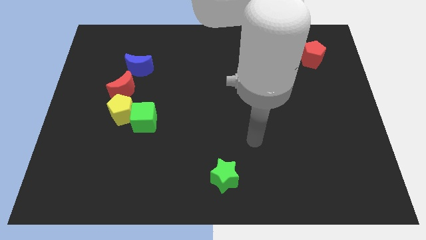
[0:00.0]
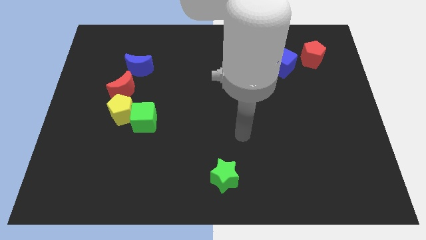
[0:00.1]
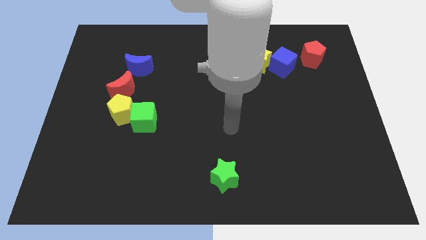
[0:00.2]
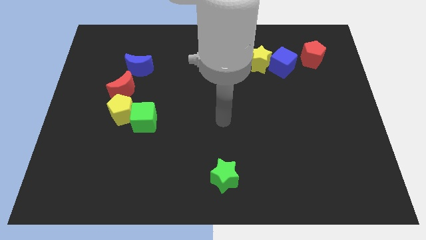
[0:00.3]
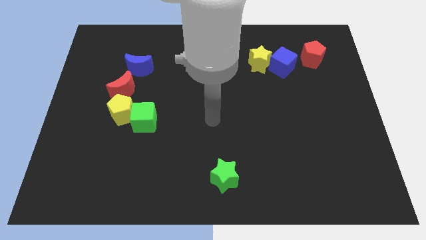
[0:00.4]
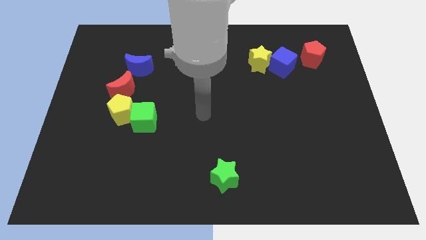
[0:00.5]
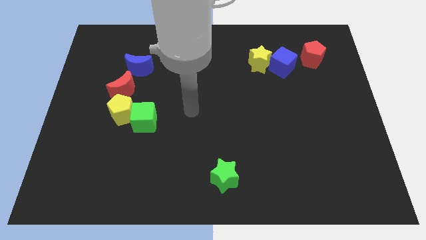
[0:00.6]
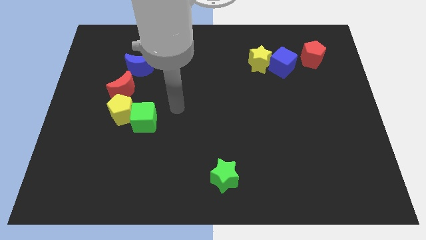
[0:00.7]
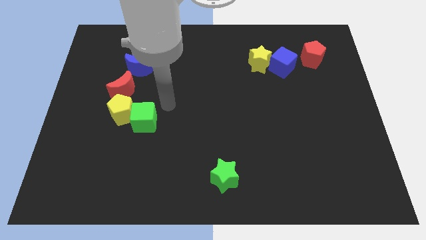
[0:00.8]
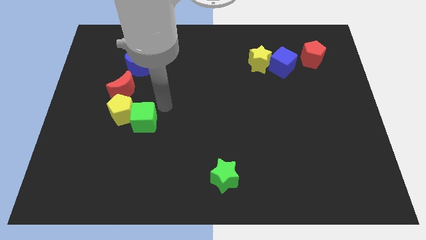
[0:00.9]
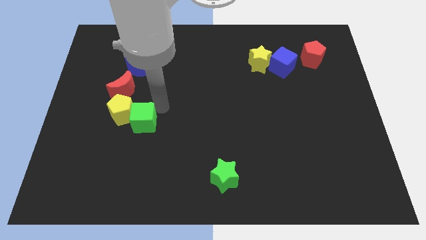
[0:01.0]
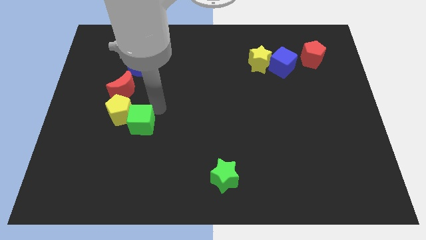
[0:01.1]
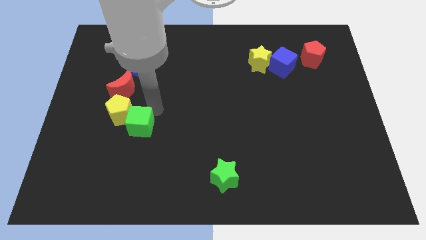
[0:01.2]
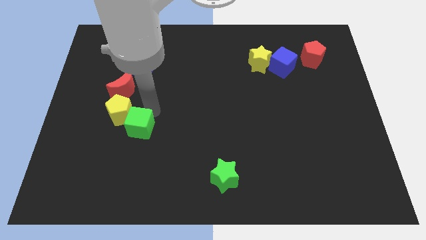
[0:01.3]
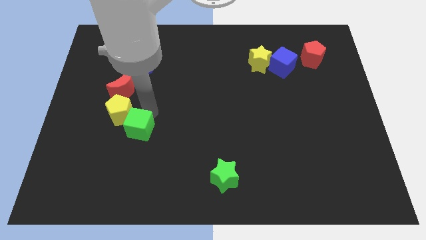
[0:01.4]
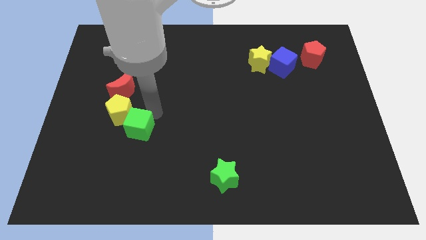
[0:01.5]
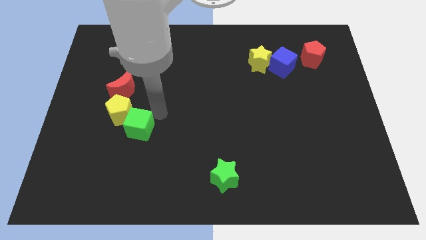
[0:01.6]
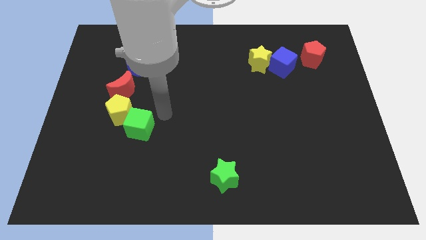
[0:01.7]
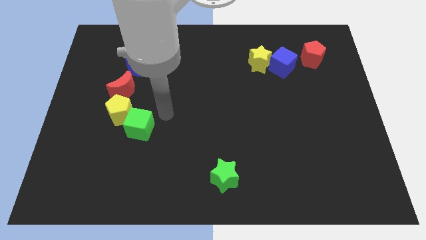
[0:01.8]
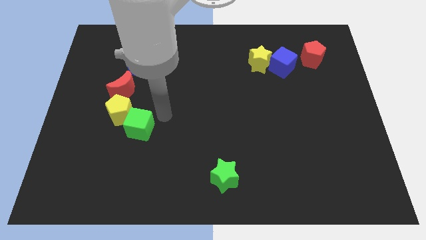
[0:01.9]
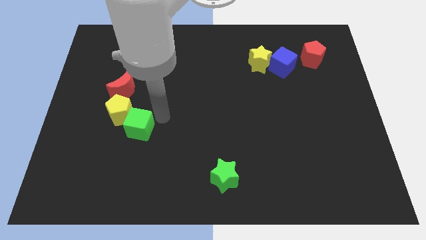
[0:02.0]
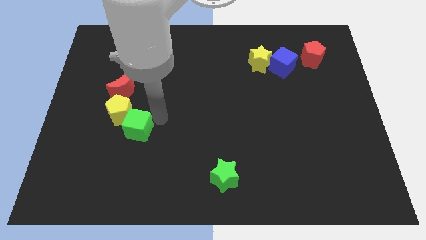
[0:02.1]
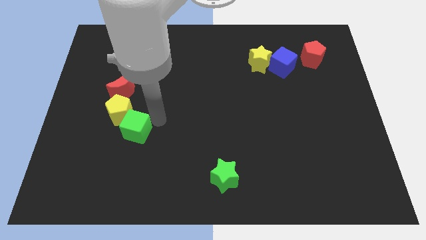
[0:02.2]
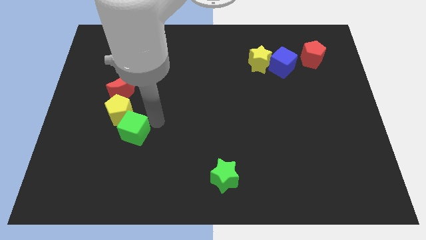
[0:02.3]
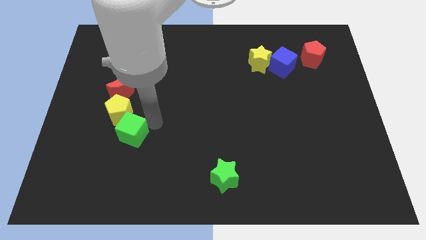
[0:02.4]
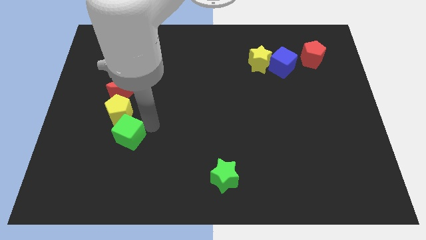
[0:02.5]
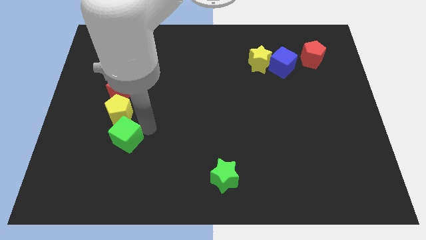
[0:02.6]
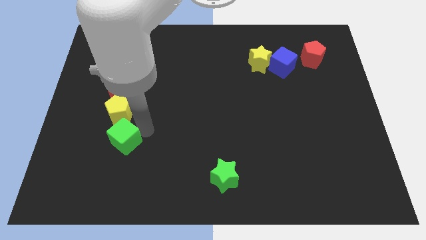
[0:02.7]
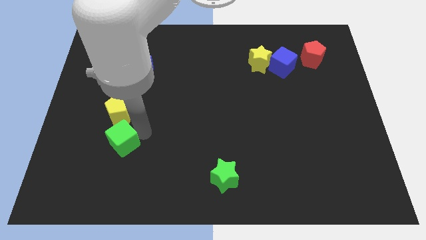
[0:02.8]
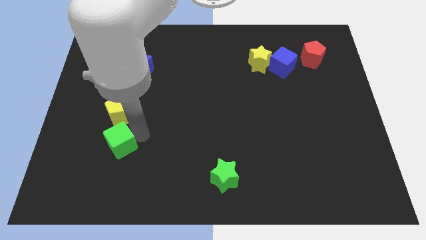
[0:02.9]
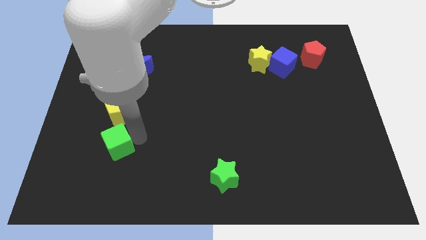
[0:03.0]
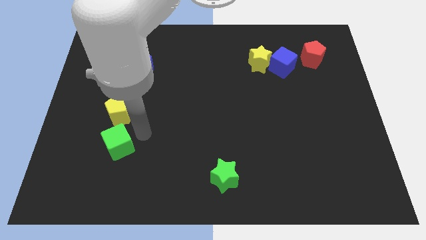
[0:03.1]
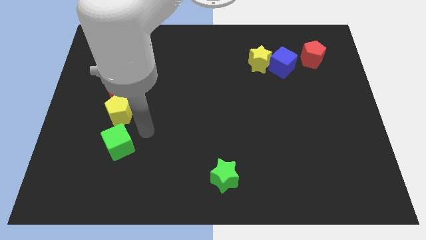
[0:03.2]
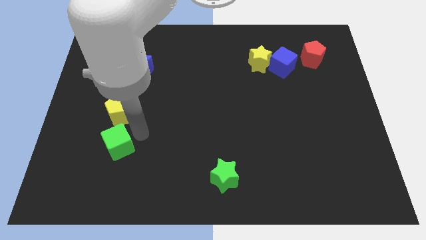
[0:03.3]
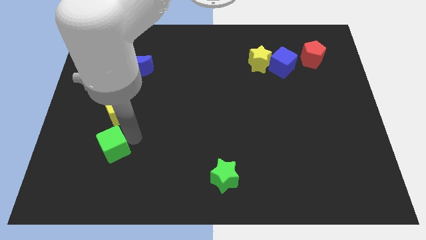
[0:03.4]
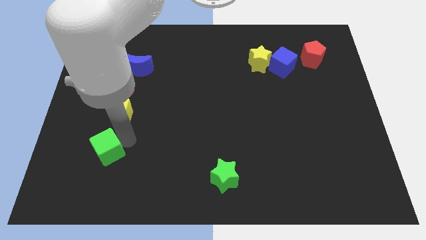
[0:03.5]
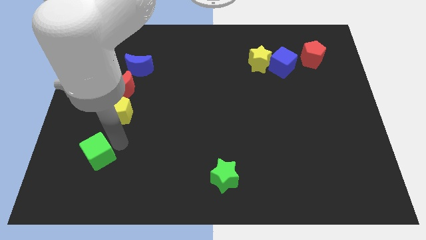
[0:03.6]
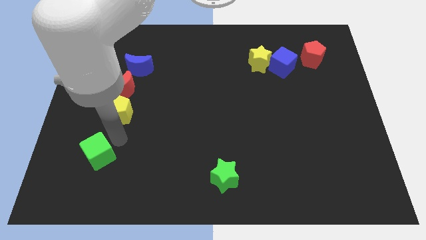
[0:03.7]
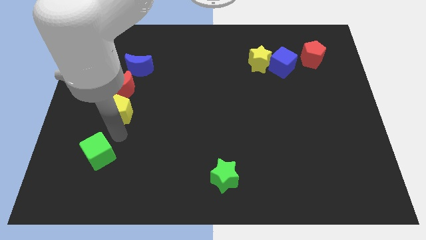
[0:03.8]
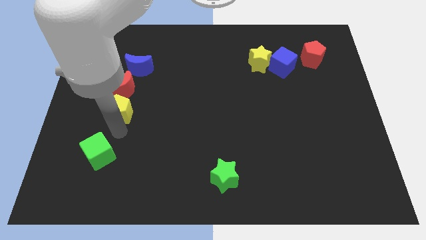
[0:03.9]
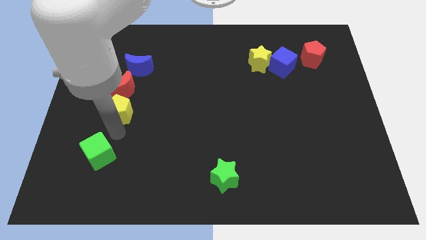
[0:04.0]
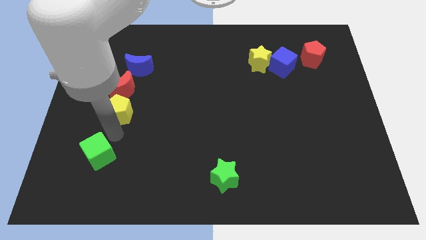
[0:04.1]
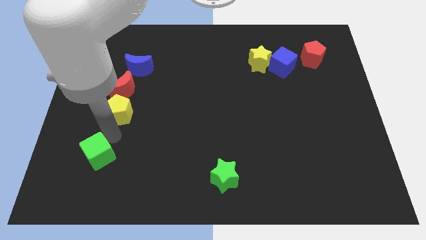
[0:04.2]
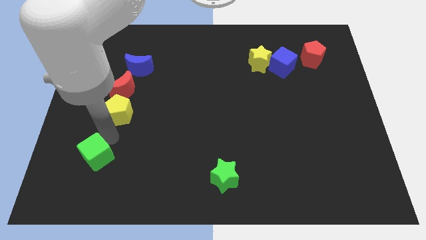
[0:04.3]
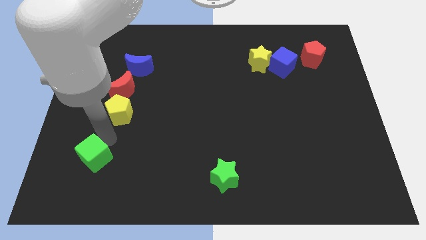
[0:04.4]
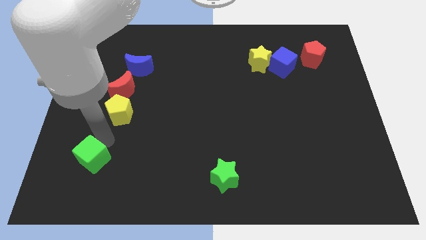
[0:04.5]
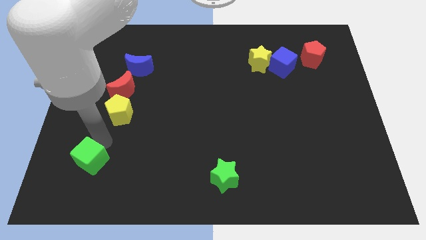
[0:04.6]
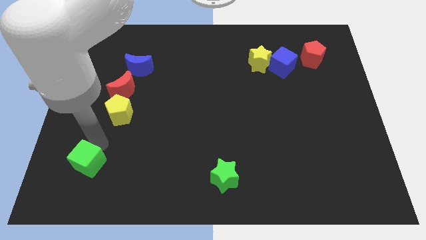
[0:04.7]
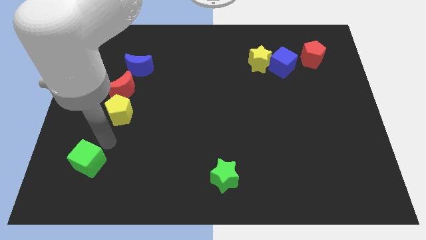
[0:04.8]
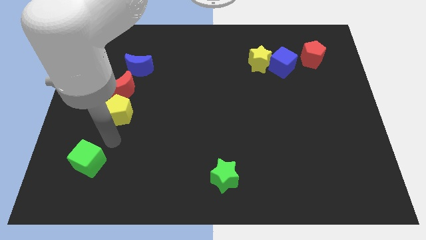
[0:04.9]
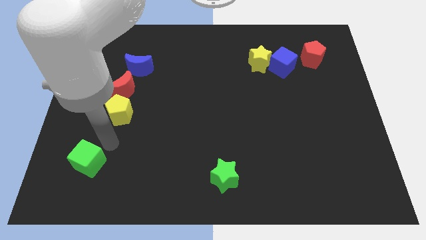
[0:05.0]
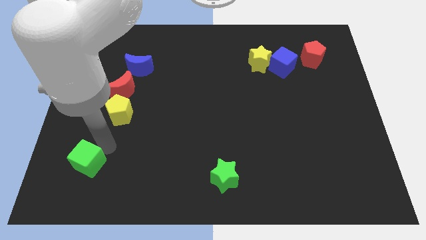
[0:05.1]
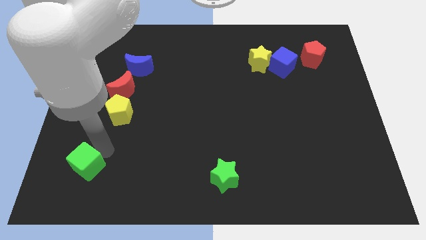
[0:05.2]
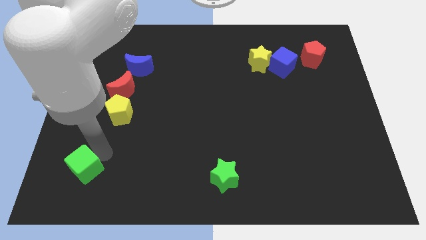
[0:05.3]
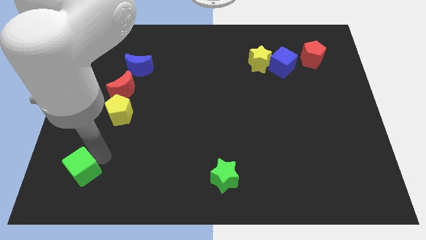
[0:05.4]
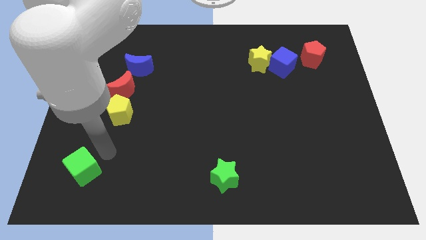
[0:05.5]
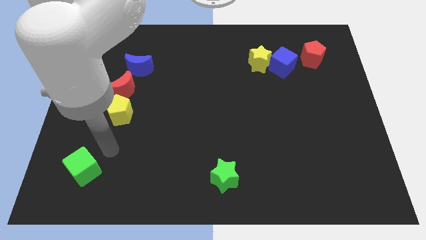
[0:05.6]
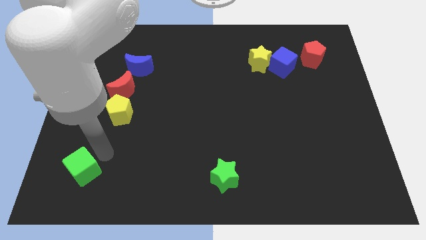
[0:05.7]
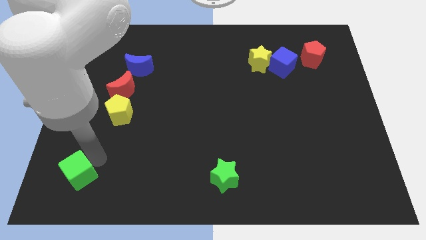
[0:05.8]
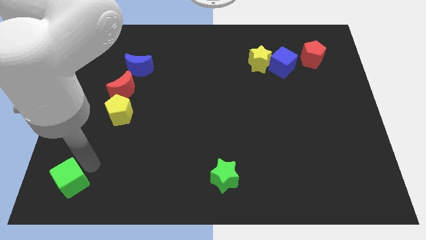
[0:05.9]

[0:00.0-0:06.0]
slide the green cube to the bottom left of the board
